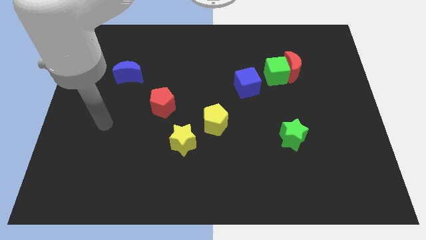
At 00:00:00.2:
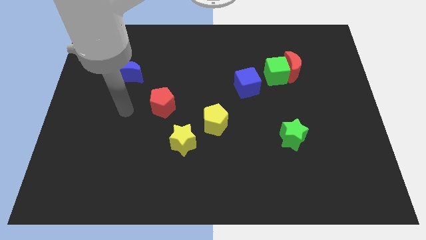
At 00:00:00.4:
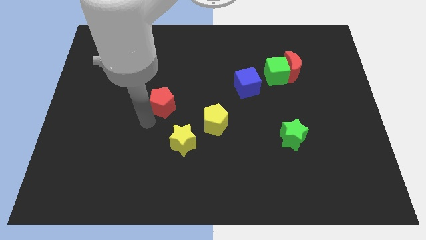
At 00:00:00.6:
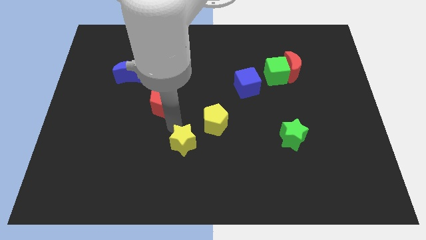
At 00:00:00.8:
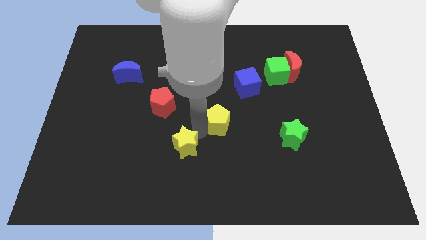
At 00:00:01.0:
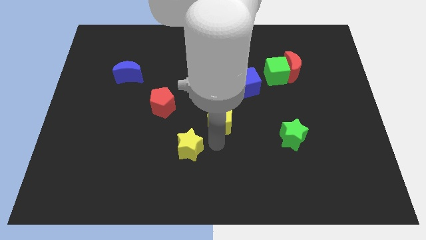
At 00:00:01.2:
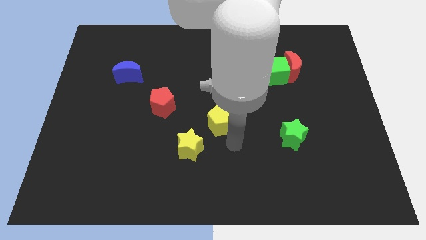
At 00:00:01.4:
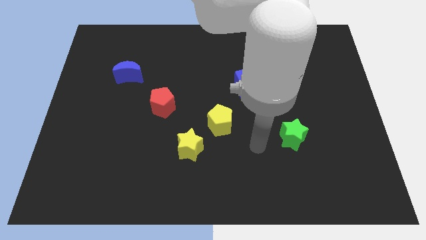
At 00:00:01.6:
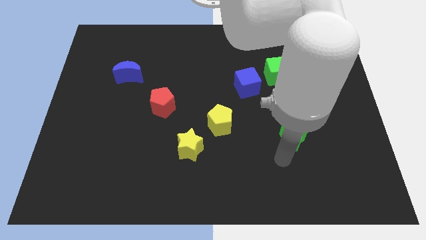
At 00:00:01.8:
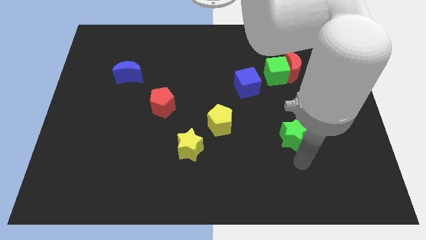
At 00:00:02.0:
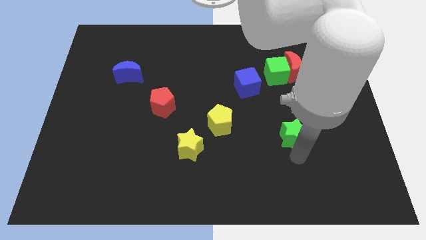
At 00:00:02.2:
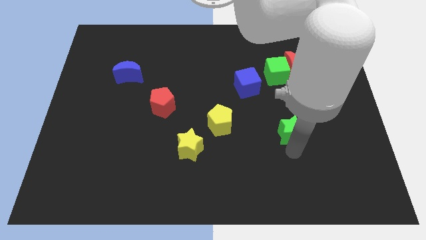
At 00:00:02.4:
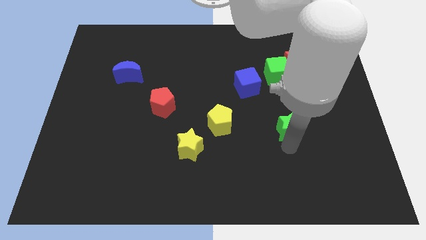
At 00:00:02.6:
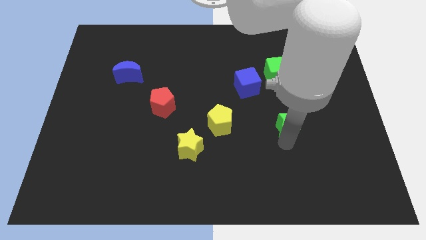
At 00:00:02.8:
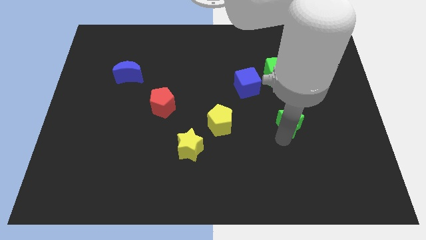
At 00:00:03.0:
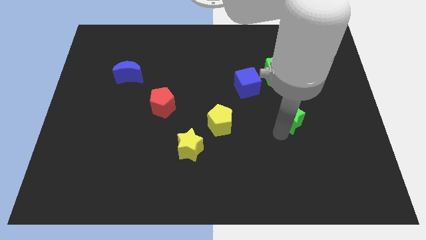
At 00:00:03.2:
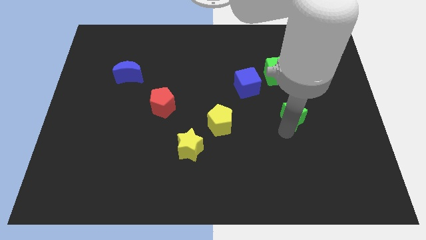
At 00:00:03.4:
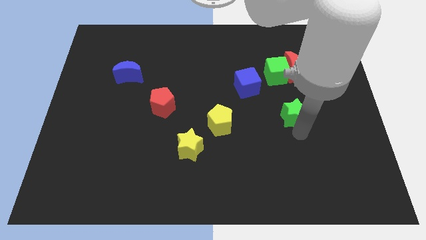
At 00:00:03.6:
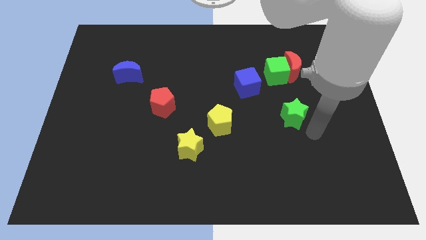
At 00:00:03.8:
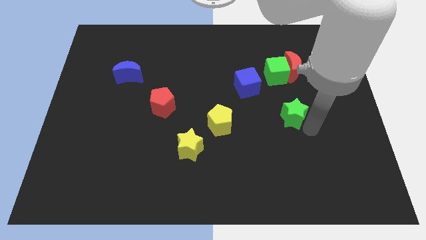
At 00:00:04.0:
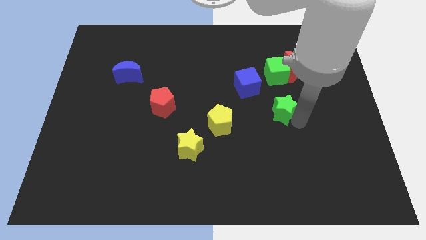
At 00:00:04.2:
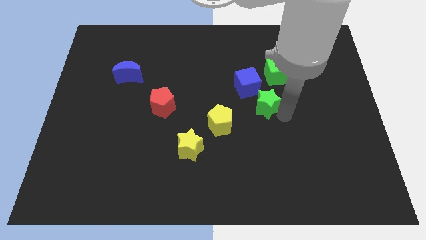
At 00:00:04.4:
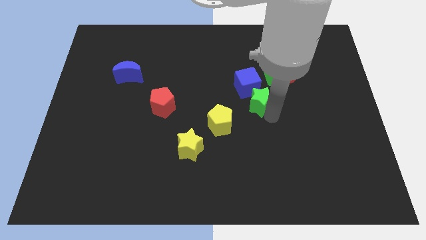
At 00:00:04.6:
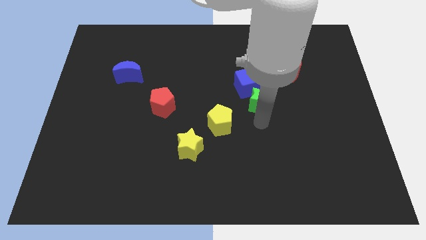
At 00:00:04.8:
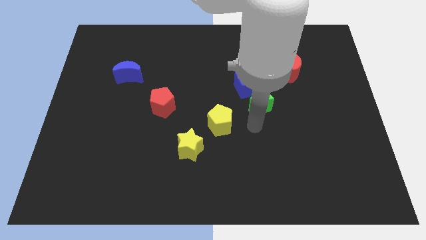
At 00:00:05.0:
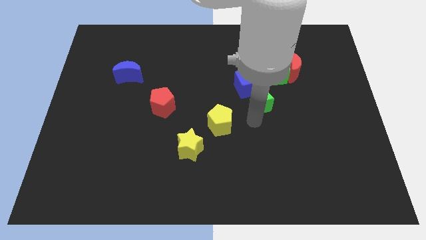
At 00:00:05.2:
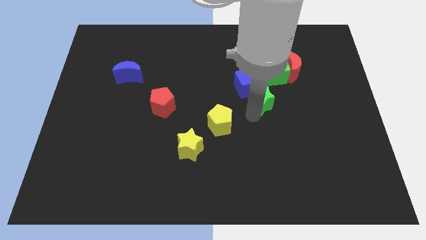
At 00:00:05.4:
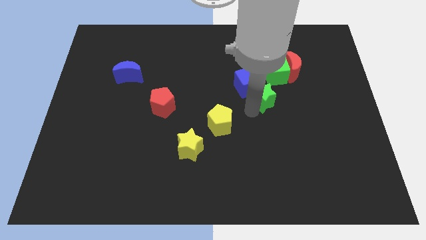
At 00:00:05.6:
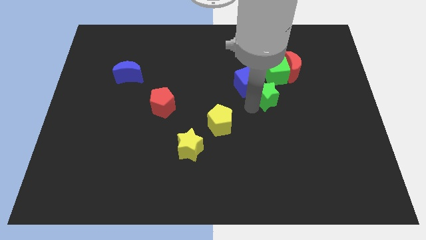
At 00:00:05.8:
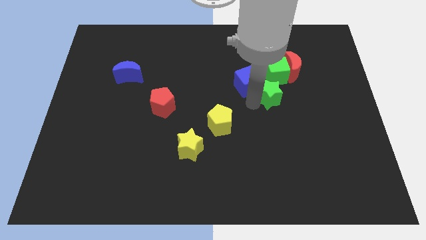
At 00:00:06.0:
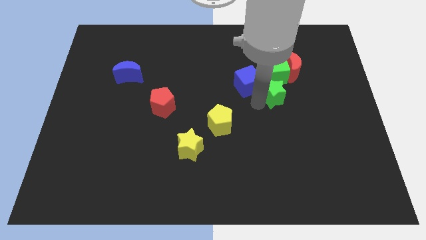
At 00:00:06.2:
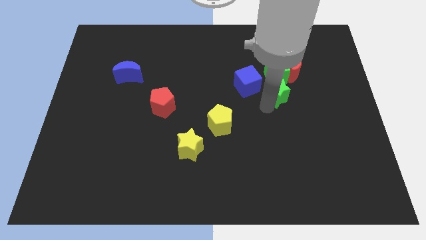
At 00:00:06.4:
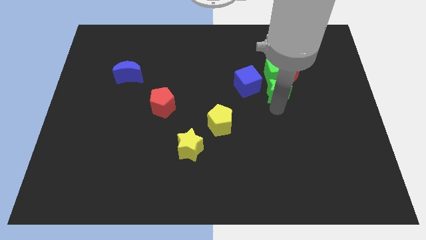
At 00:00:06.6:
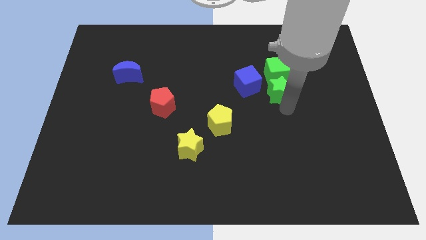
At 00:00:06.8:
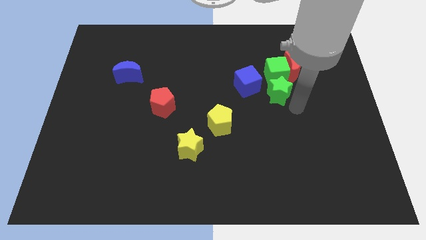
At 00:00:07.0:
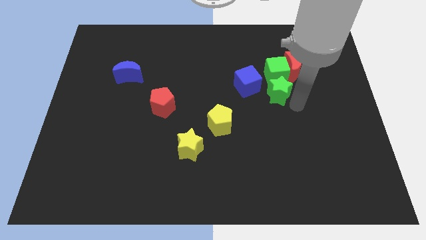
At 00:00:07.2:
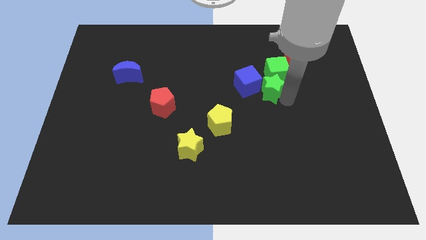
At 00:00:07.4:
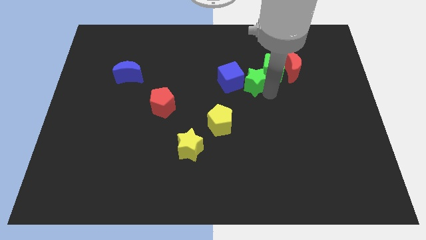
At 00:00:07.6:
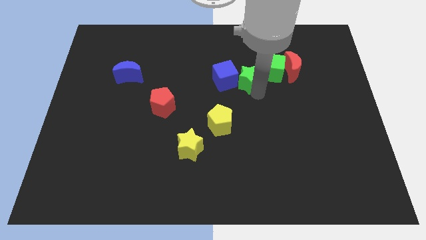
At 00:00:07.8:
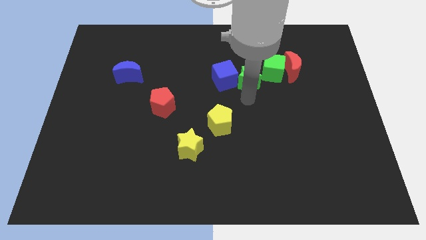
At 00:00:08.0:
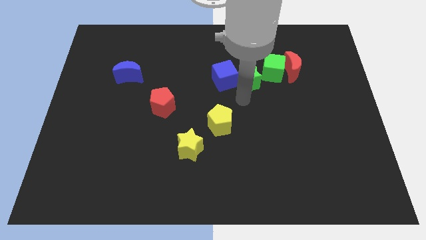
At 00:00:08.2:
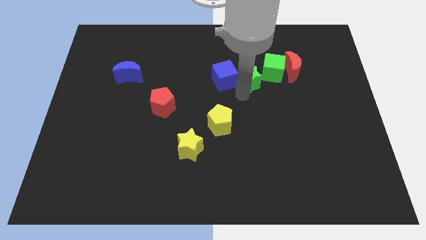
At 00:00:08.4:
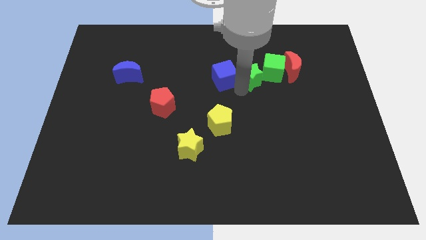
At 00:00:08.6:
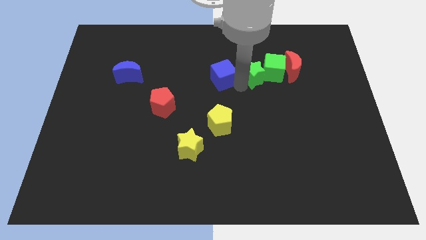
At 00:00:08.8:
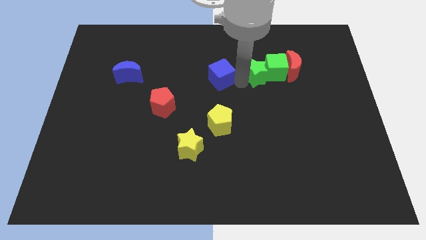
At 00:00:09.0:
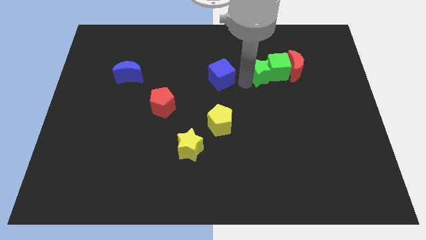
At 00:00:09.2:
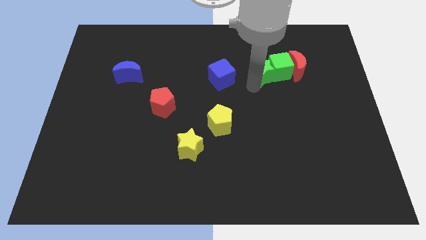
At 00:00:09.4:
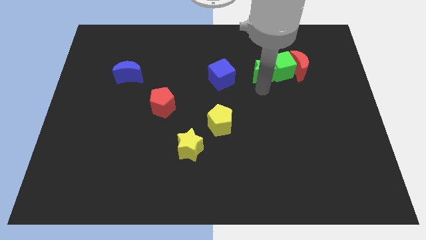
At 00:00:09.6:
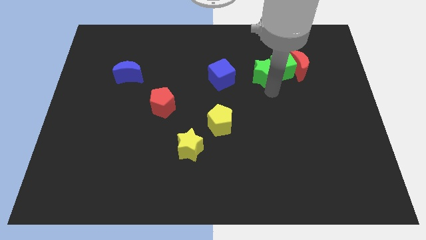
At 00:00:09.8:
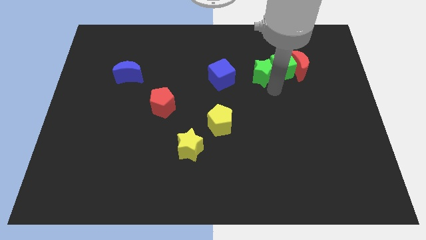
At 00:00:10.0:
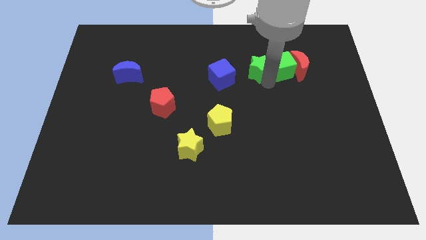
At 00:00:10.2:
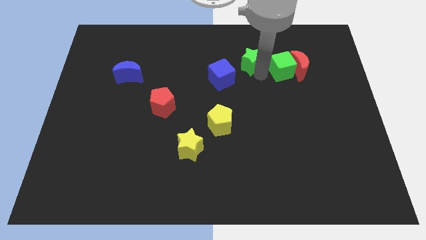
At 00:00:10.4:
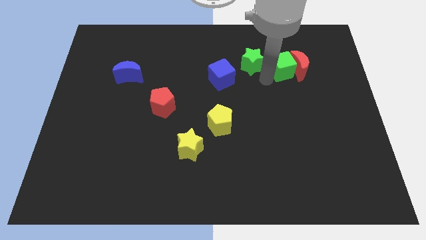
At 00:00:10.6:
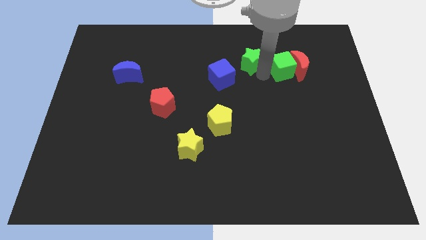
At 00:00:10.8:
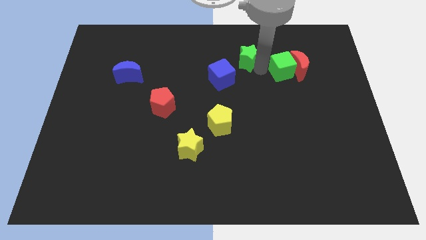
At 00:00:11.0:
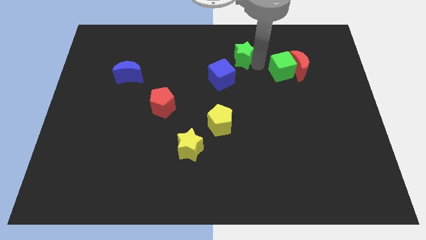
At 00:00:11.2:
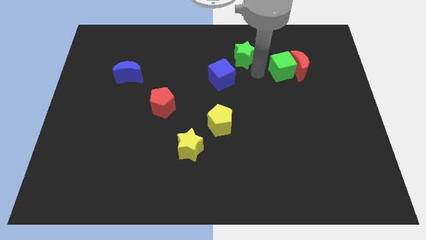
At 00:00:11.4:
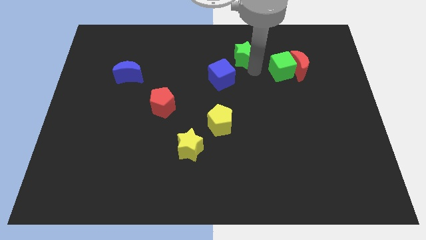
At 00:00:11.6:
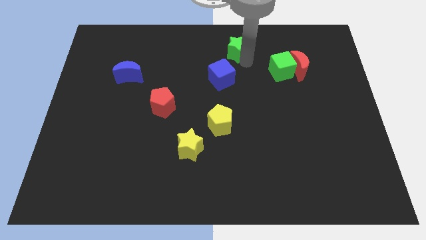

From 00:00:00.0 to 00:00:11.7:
slide the green star to the towards your base
